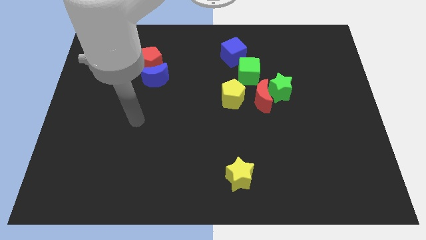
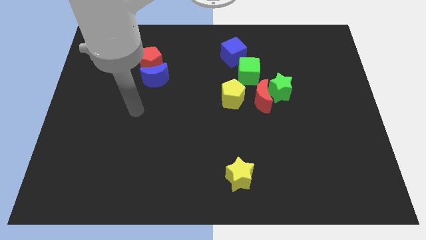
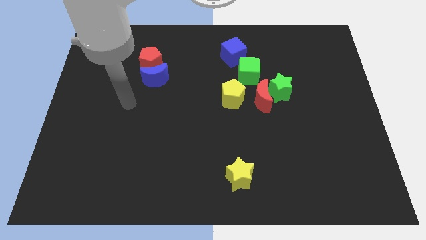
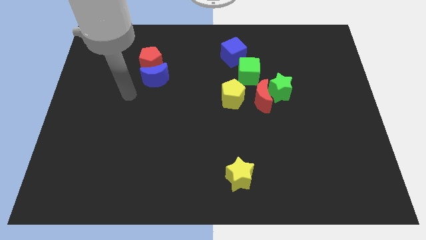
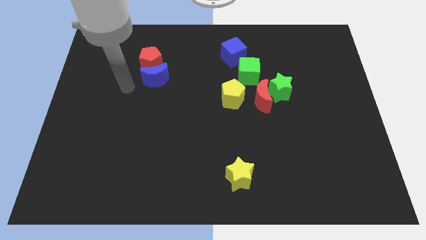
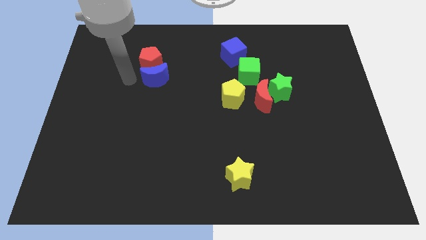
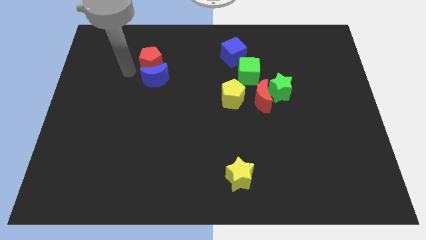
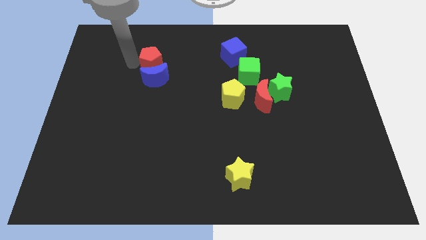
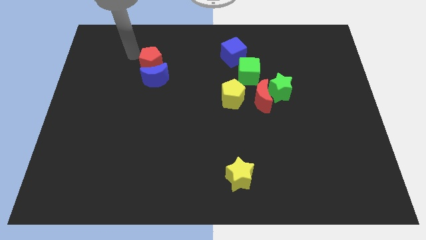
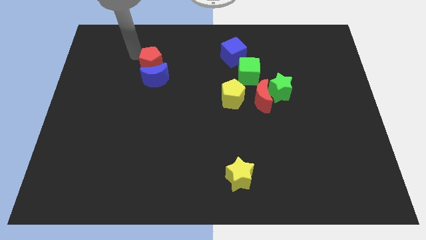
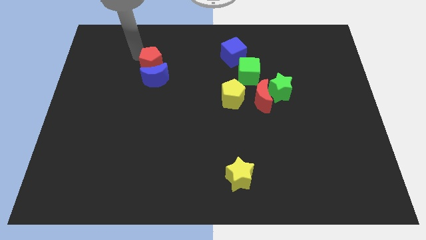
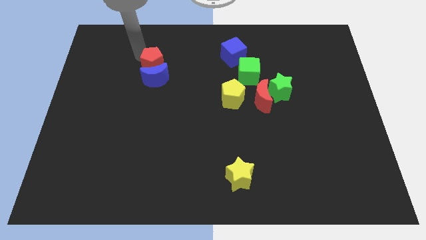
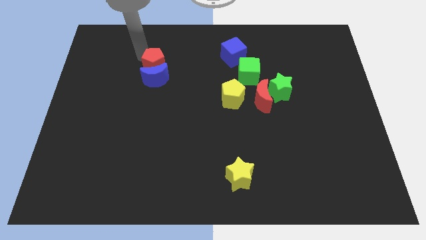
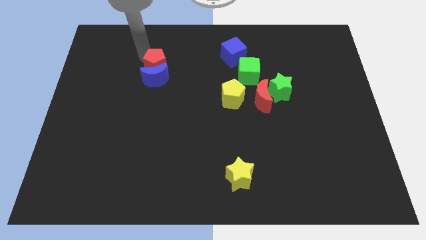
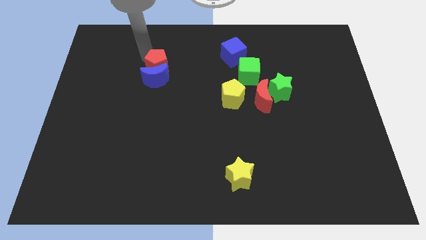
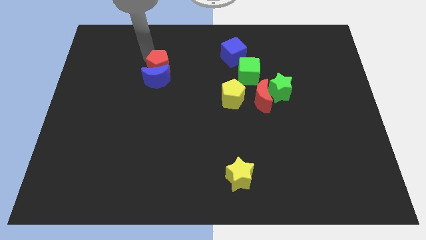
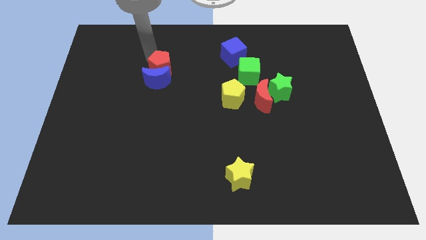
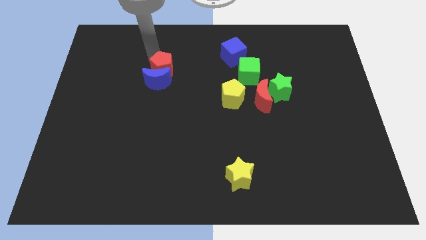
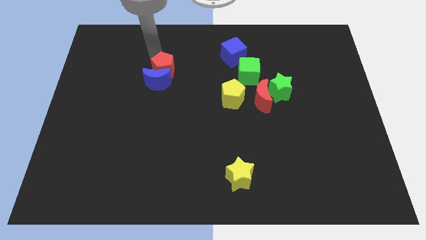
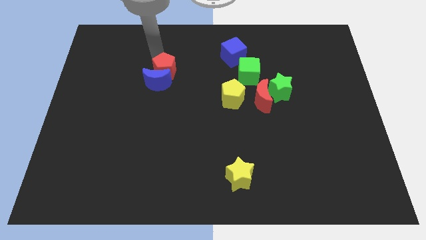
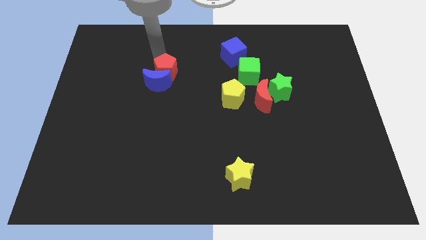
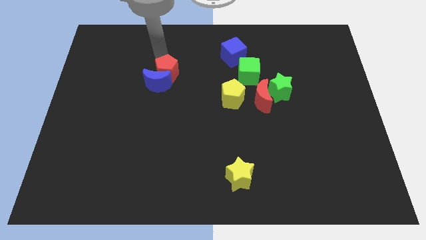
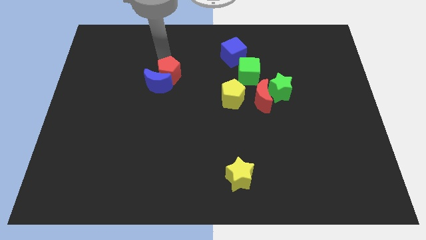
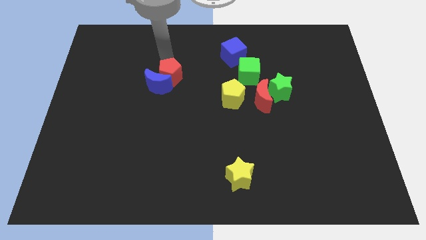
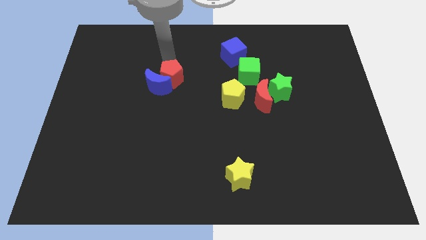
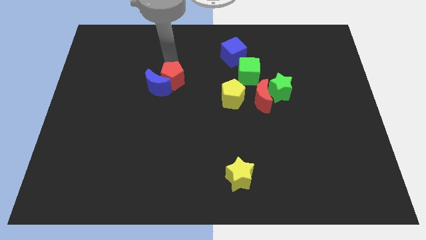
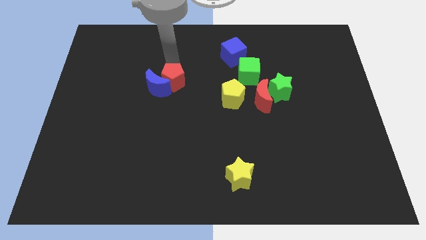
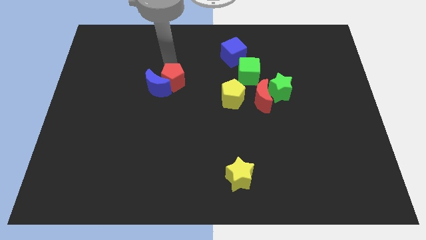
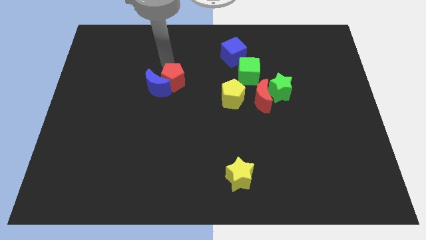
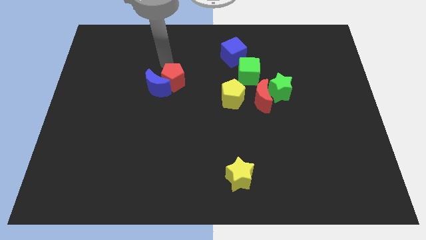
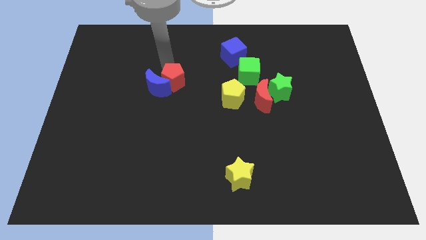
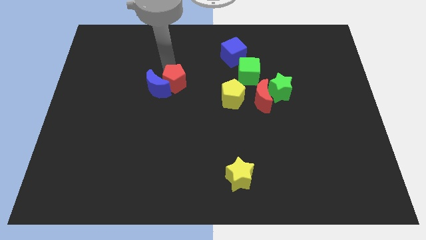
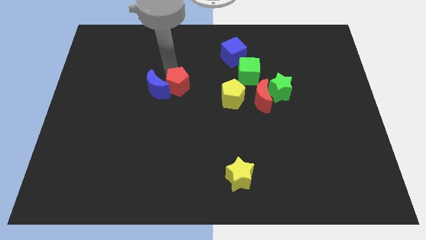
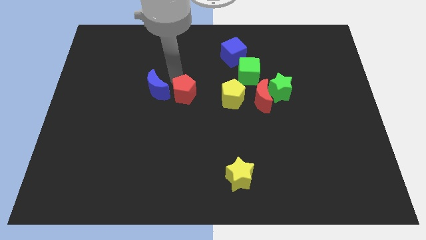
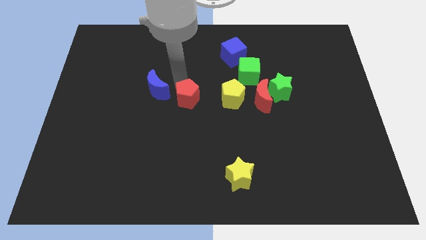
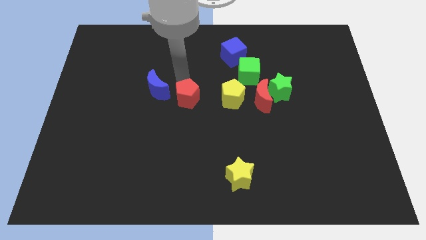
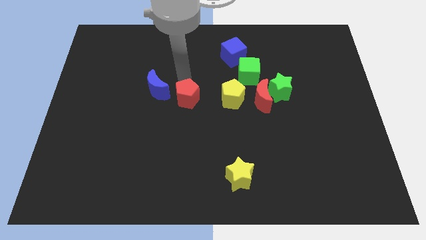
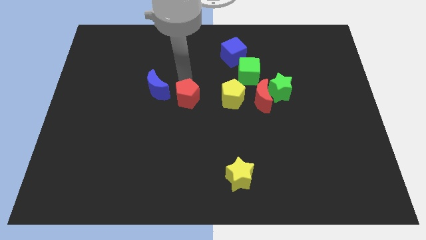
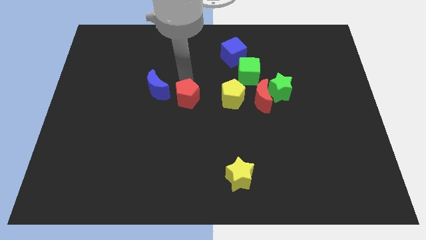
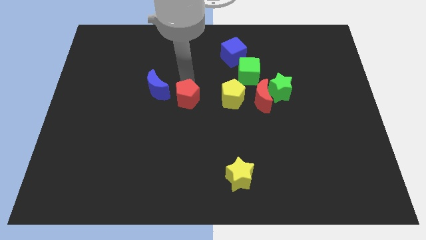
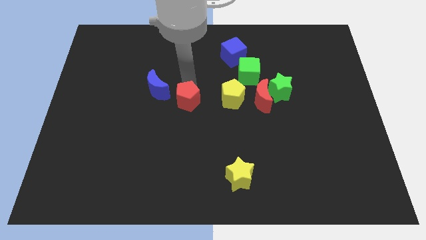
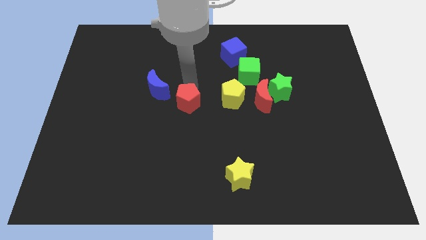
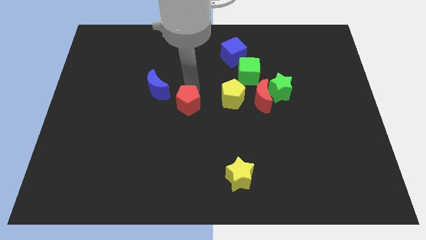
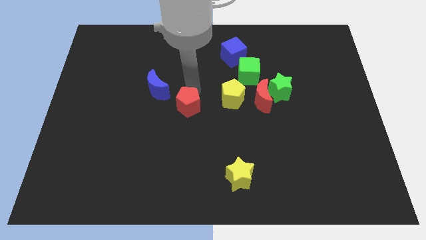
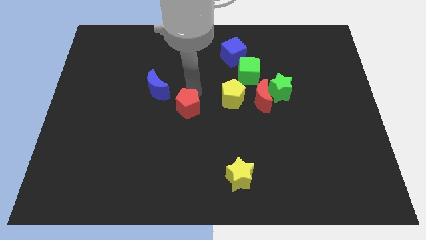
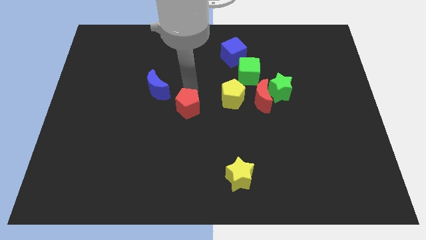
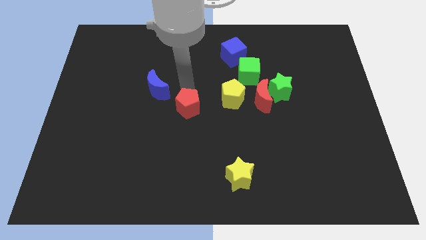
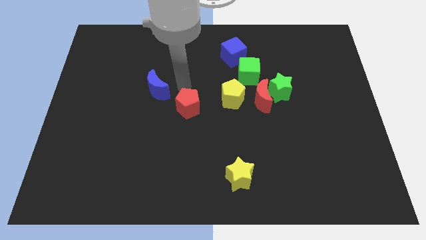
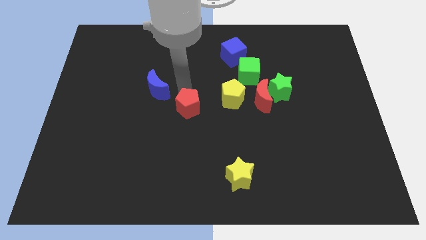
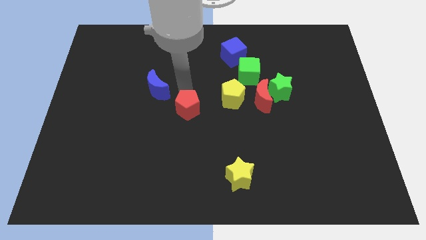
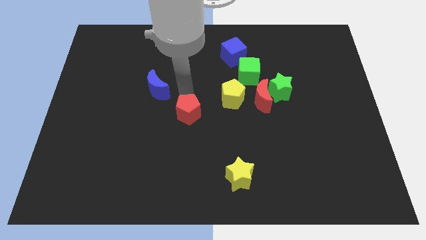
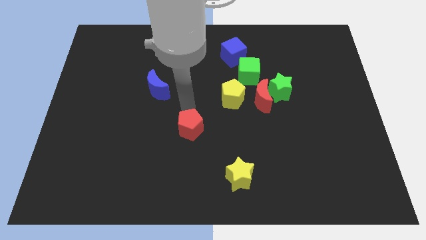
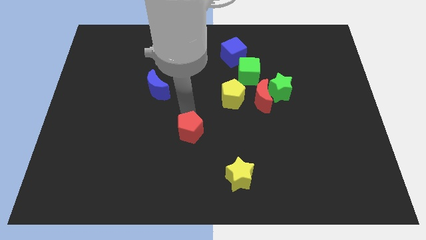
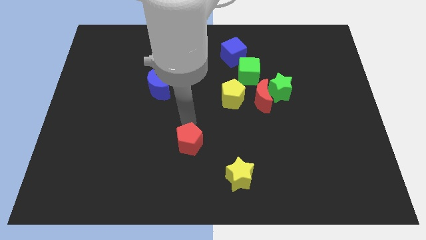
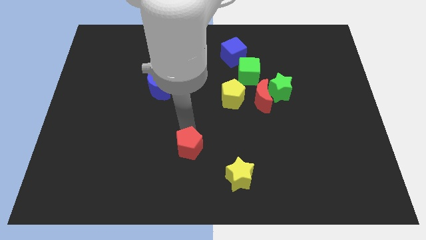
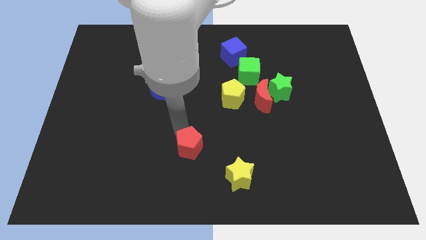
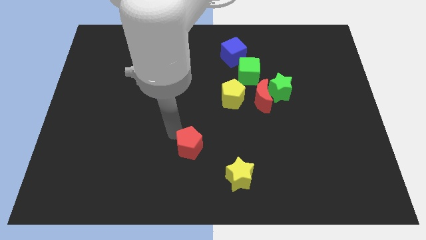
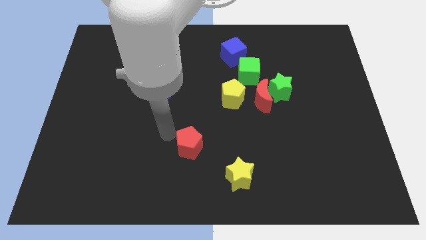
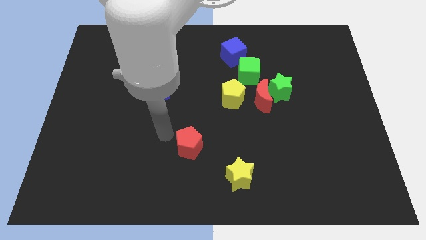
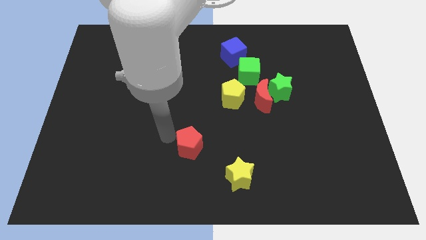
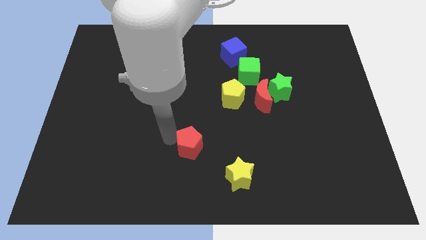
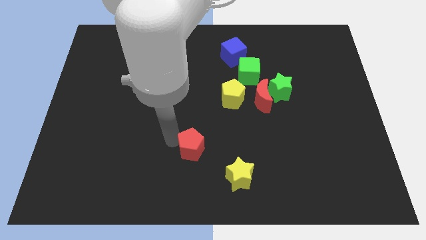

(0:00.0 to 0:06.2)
push the red pentagon to the top left side of the yellow star
